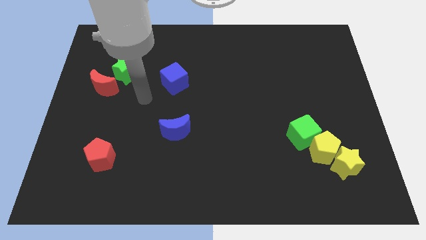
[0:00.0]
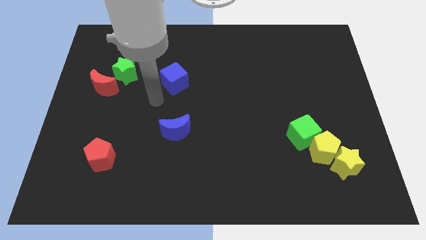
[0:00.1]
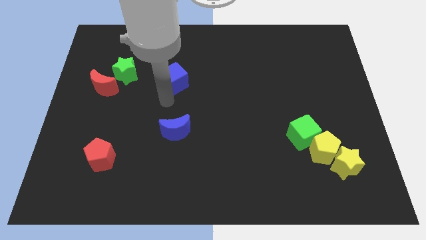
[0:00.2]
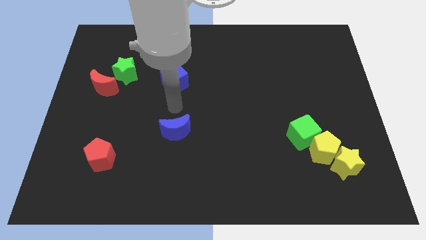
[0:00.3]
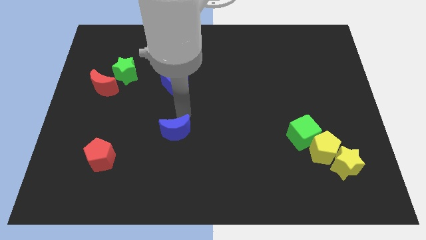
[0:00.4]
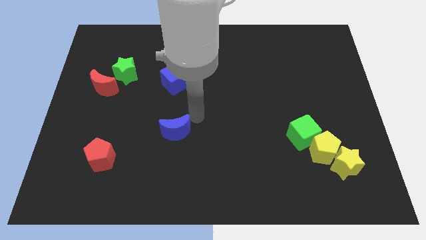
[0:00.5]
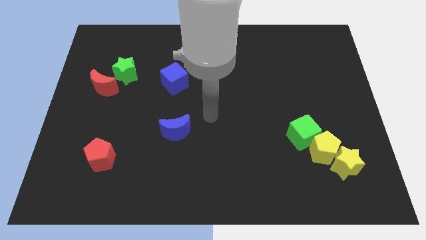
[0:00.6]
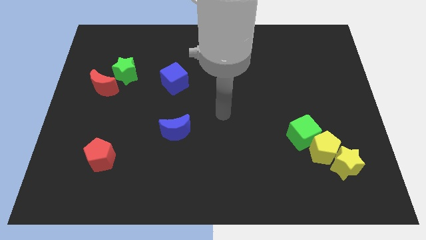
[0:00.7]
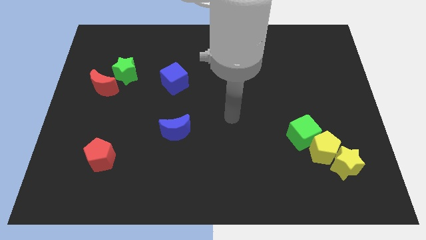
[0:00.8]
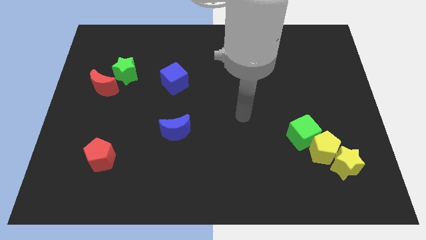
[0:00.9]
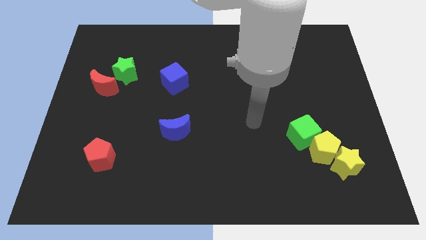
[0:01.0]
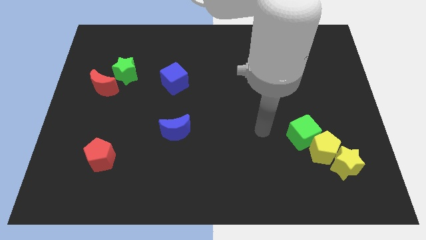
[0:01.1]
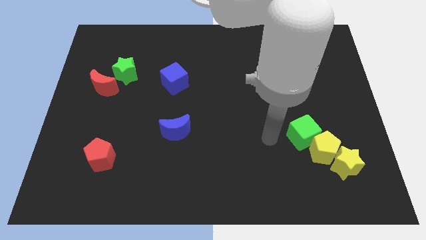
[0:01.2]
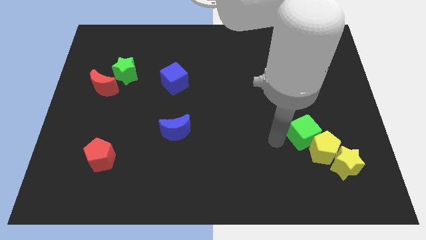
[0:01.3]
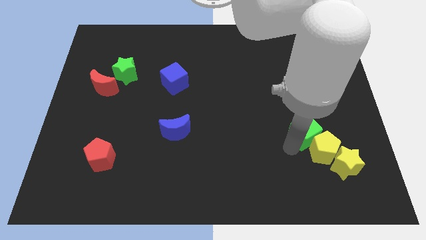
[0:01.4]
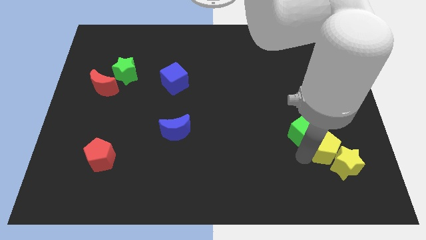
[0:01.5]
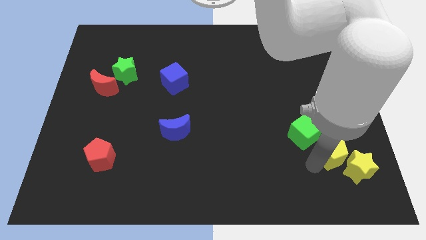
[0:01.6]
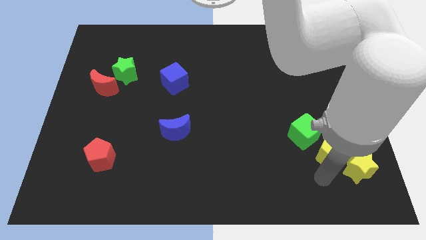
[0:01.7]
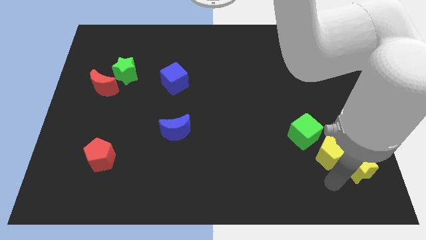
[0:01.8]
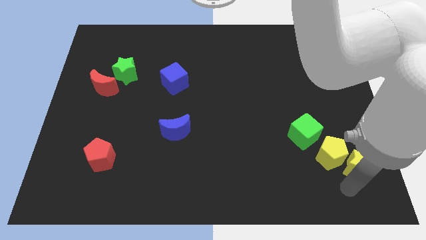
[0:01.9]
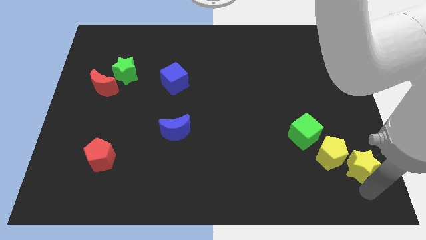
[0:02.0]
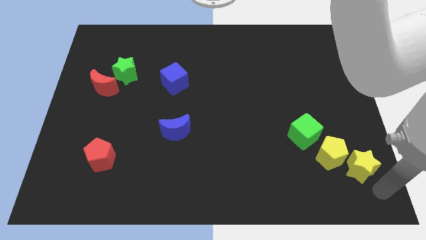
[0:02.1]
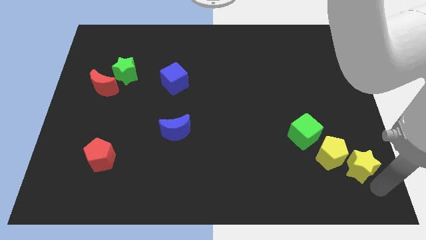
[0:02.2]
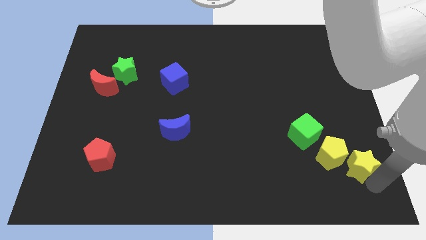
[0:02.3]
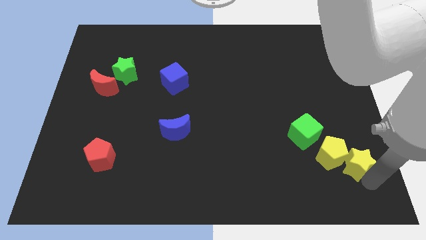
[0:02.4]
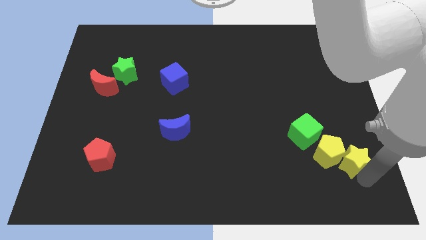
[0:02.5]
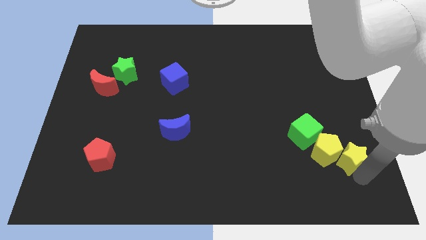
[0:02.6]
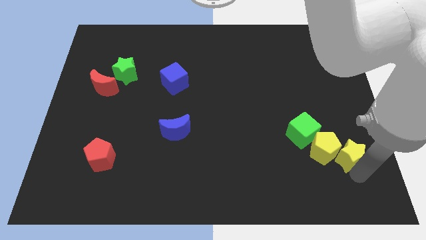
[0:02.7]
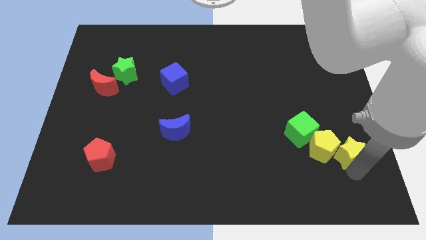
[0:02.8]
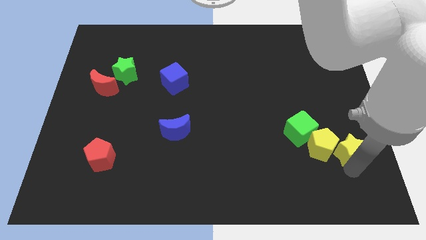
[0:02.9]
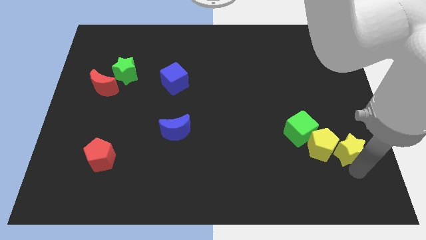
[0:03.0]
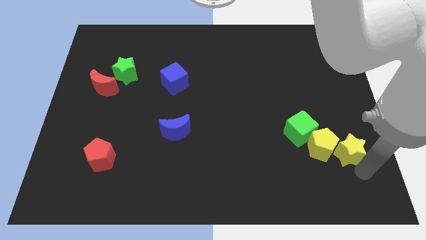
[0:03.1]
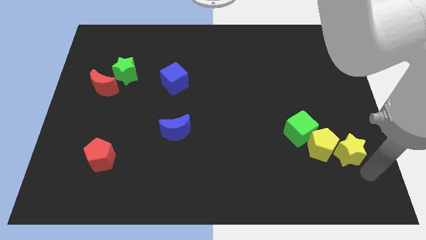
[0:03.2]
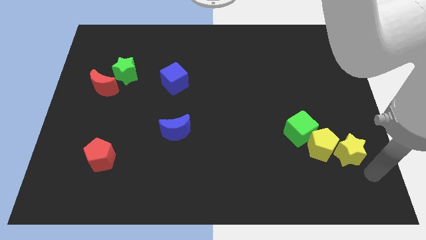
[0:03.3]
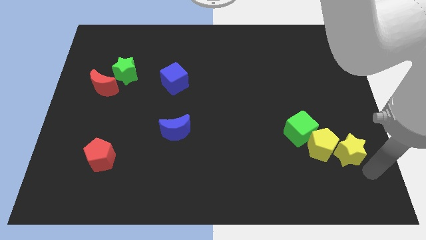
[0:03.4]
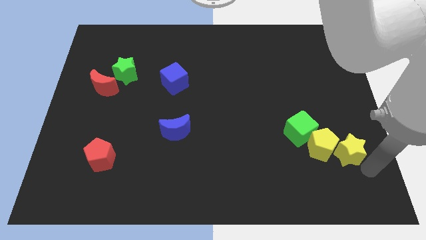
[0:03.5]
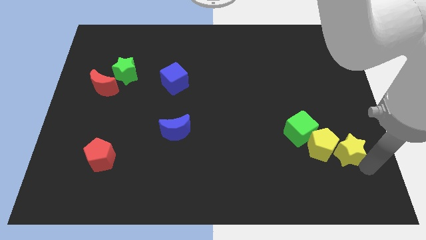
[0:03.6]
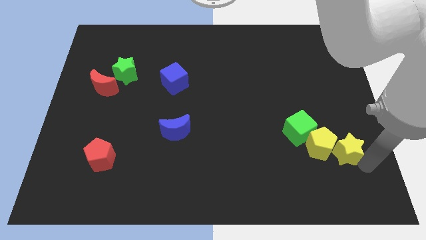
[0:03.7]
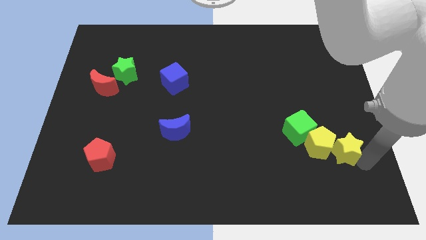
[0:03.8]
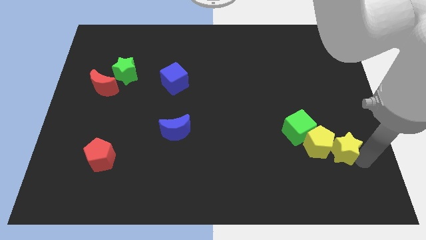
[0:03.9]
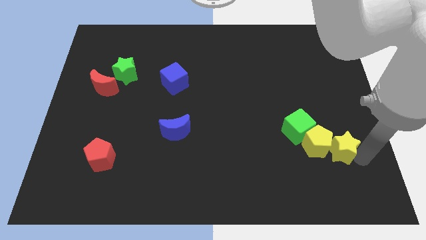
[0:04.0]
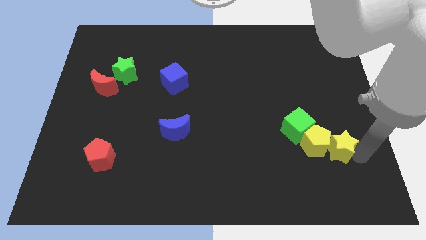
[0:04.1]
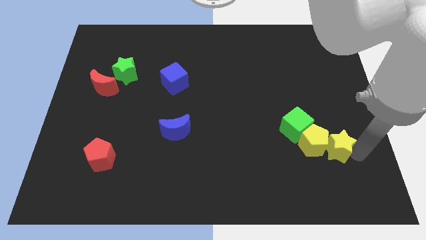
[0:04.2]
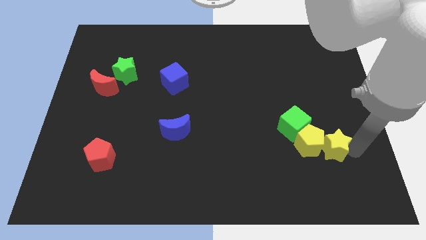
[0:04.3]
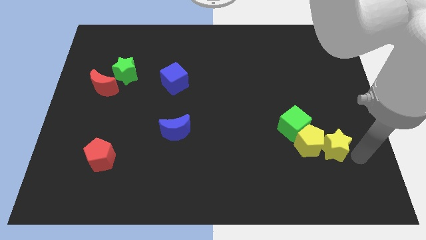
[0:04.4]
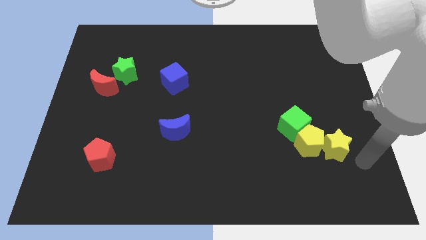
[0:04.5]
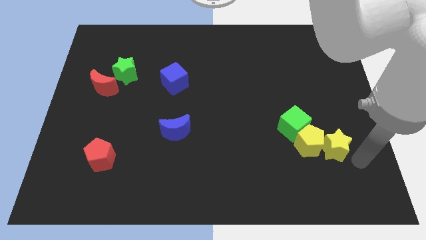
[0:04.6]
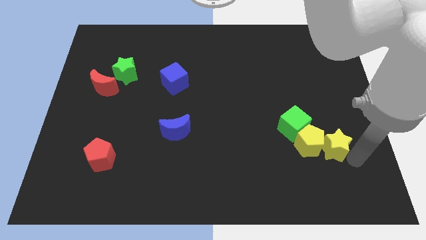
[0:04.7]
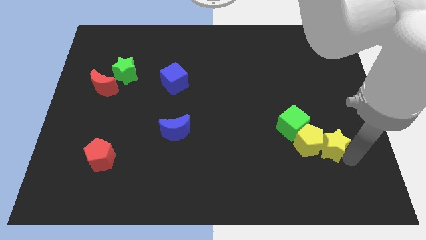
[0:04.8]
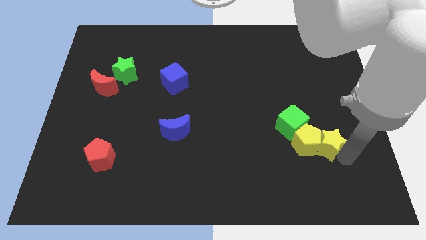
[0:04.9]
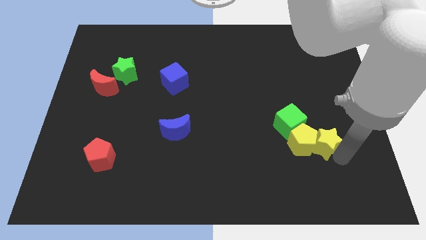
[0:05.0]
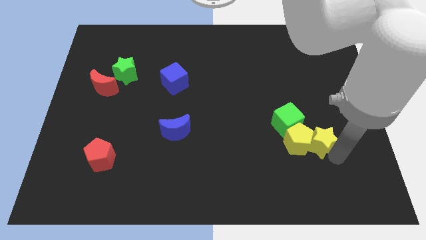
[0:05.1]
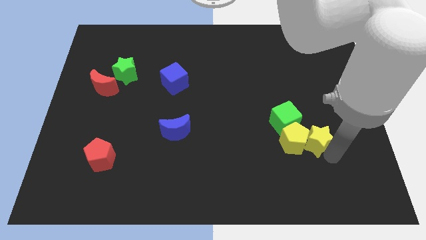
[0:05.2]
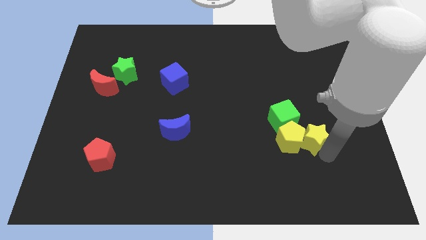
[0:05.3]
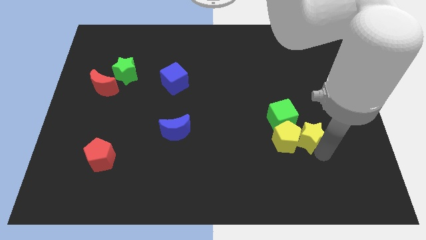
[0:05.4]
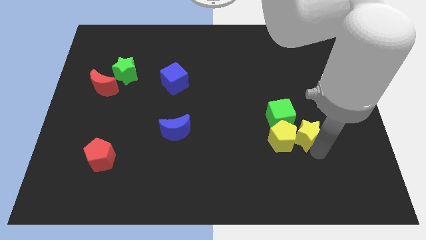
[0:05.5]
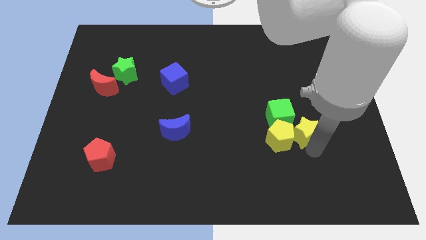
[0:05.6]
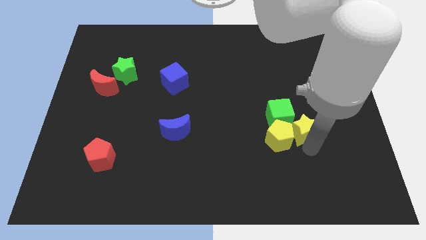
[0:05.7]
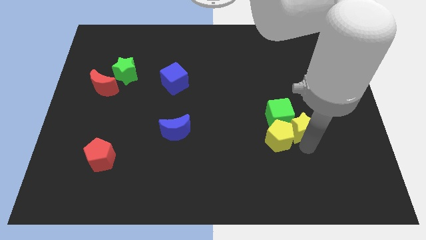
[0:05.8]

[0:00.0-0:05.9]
move the yellow star towards the green cube

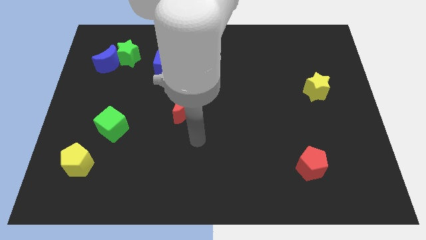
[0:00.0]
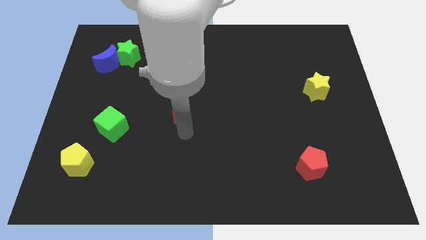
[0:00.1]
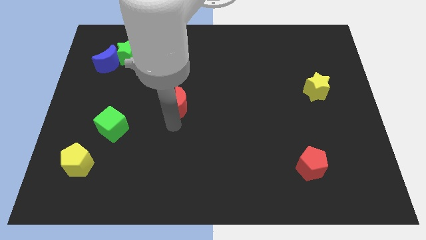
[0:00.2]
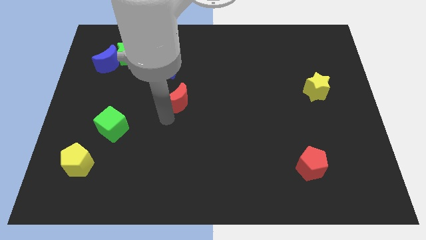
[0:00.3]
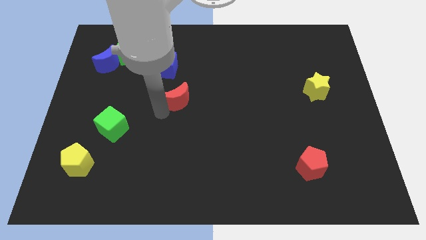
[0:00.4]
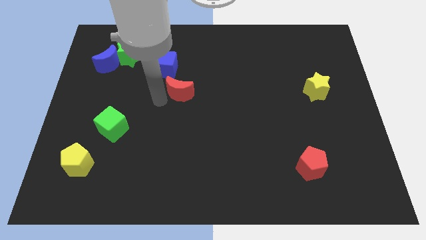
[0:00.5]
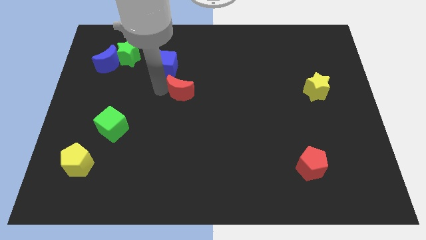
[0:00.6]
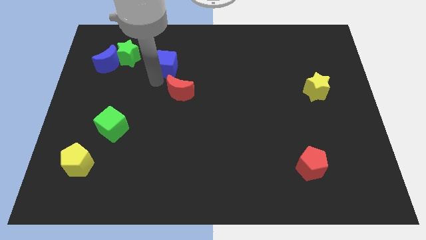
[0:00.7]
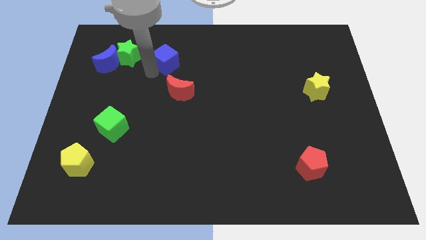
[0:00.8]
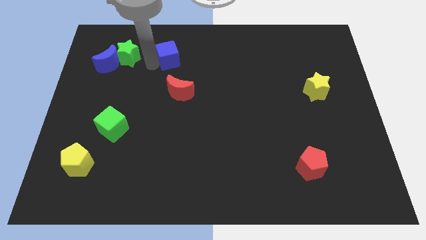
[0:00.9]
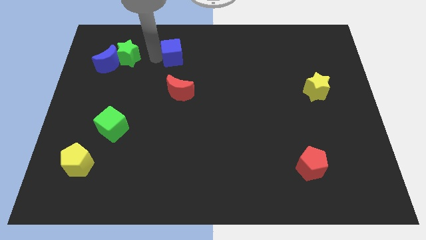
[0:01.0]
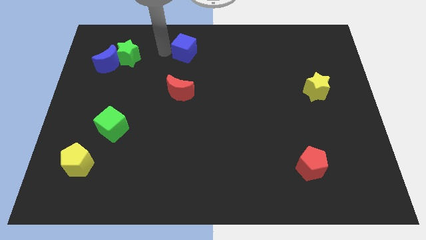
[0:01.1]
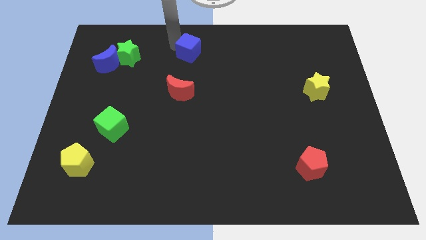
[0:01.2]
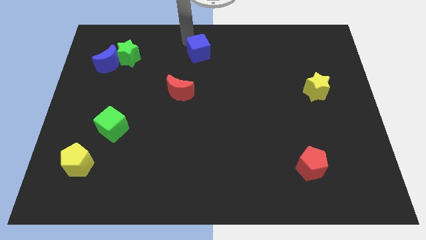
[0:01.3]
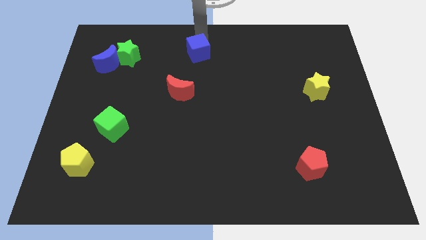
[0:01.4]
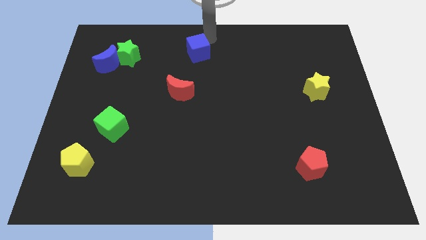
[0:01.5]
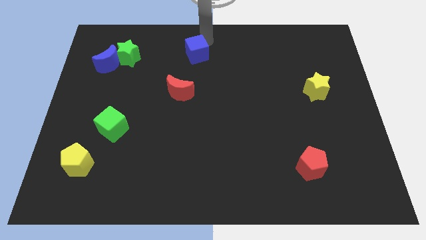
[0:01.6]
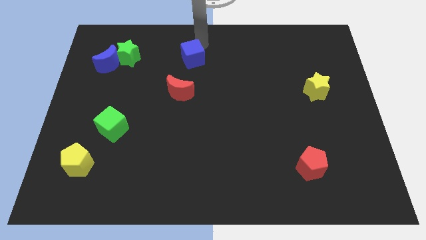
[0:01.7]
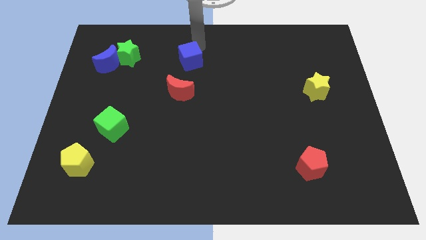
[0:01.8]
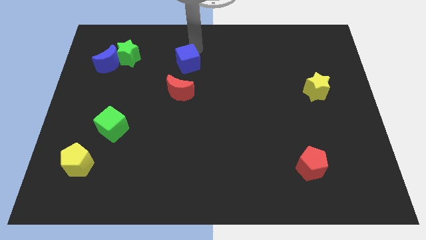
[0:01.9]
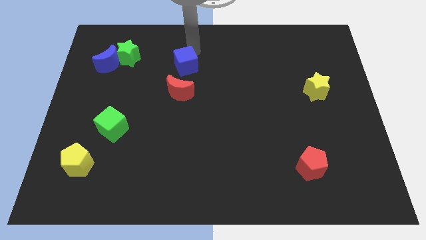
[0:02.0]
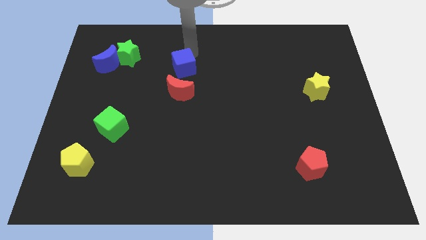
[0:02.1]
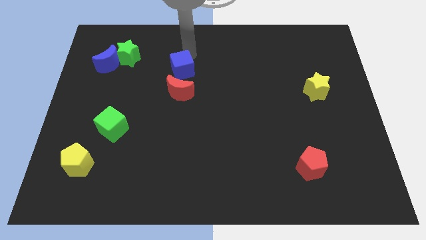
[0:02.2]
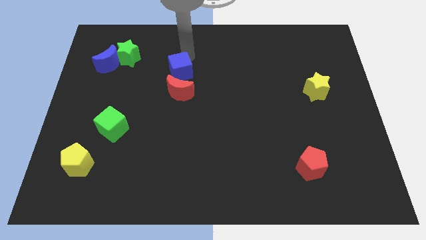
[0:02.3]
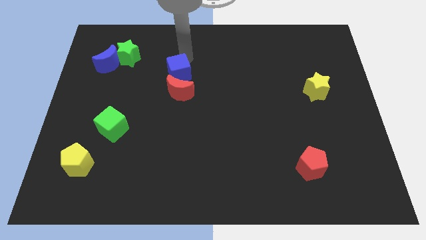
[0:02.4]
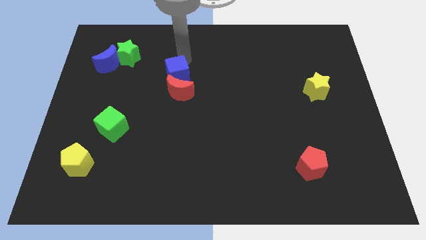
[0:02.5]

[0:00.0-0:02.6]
move the blue cube next to the red moon
